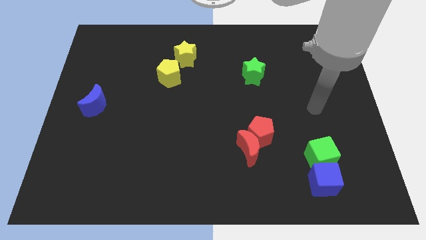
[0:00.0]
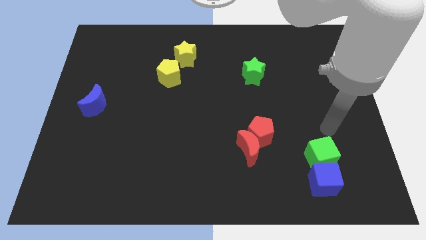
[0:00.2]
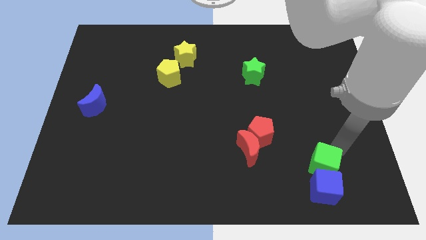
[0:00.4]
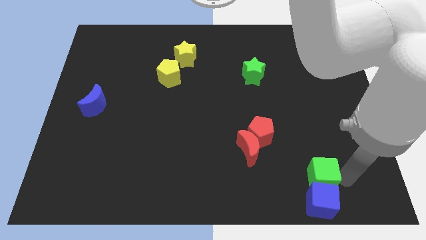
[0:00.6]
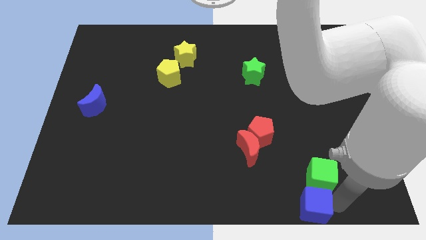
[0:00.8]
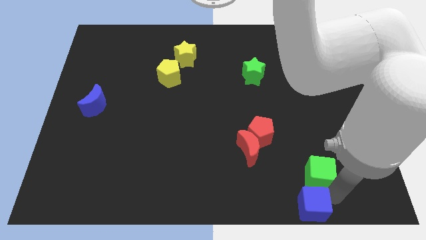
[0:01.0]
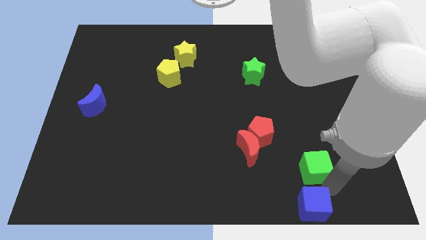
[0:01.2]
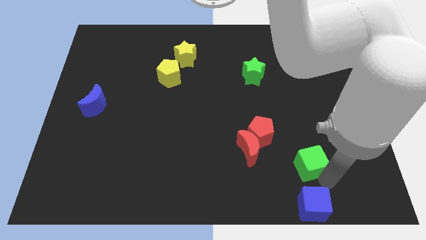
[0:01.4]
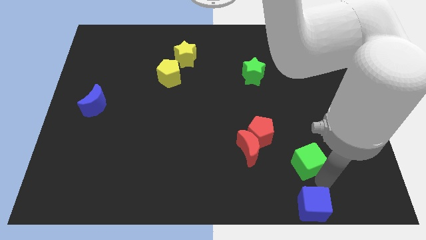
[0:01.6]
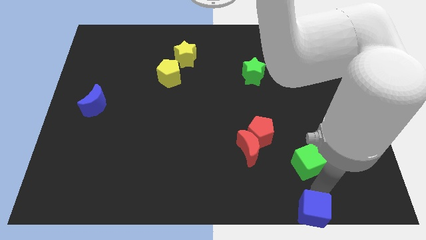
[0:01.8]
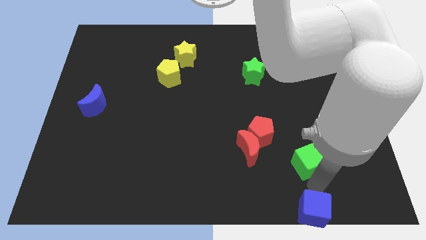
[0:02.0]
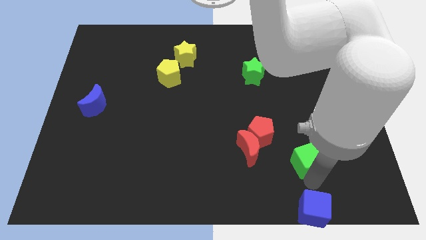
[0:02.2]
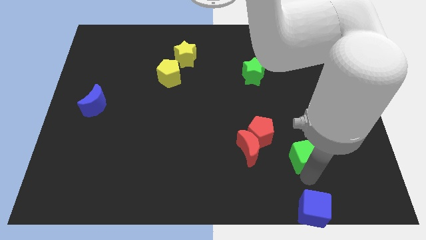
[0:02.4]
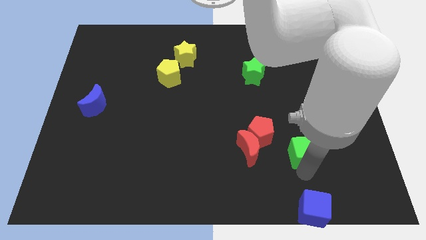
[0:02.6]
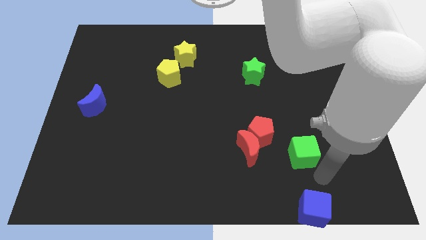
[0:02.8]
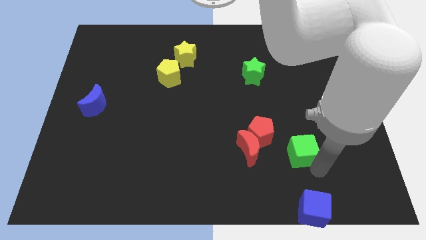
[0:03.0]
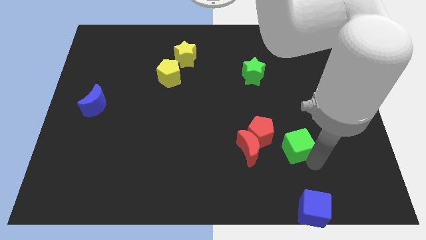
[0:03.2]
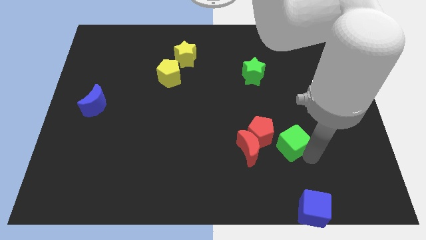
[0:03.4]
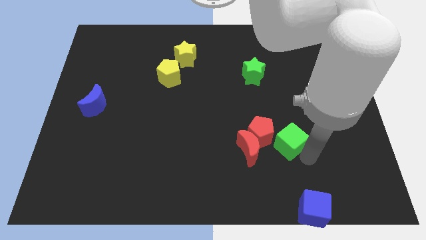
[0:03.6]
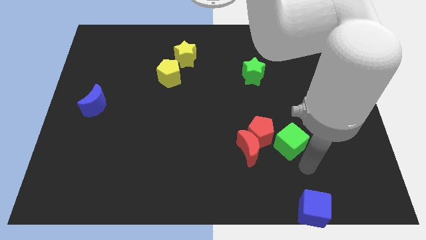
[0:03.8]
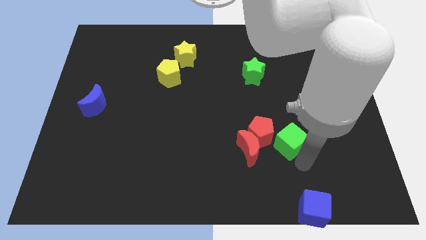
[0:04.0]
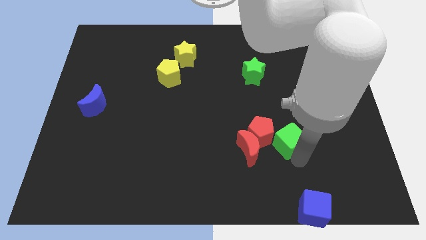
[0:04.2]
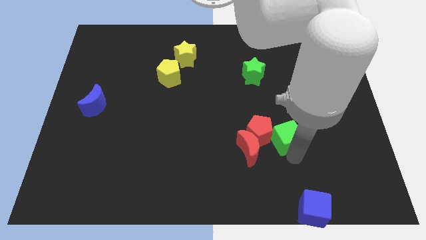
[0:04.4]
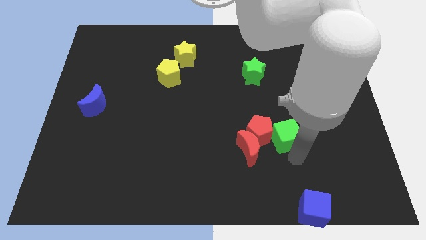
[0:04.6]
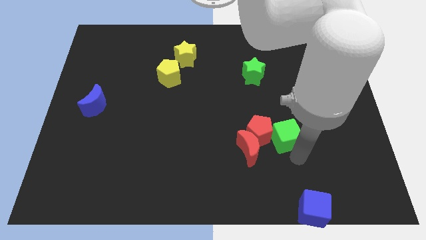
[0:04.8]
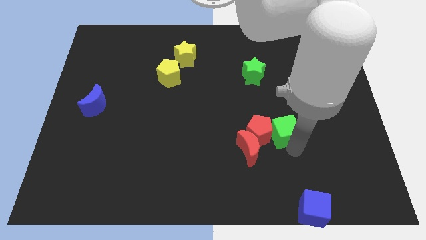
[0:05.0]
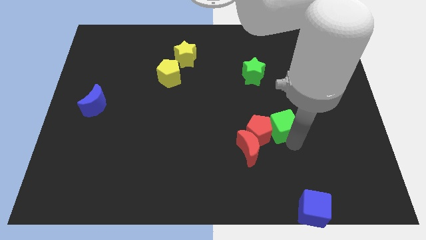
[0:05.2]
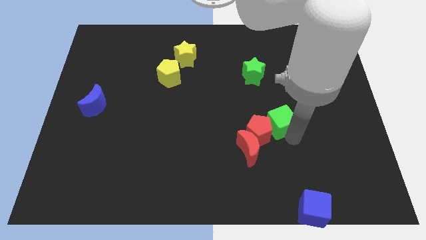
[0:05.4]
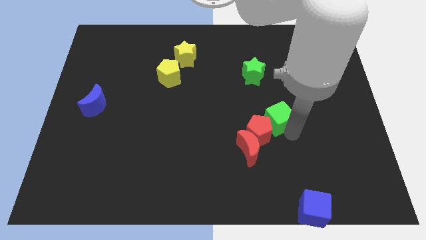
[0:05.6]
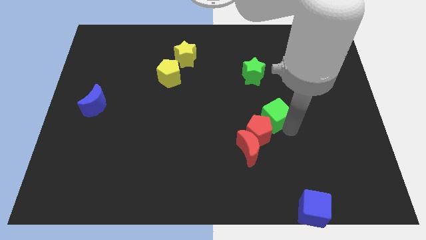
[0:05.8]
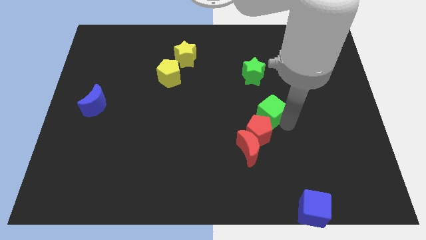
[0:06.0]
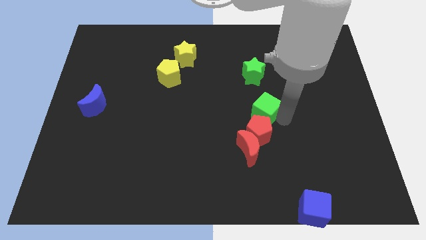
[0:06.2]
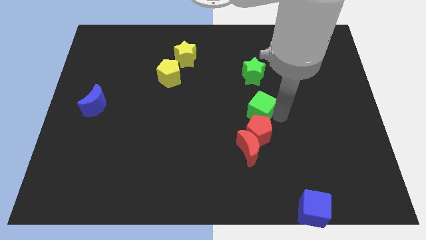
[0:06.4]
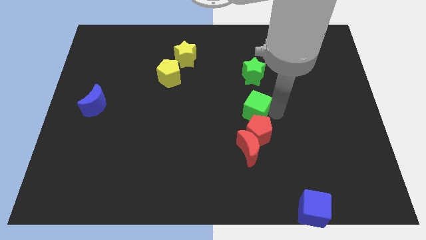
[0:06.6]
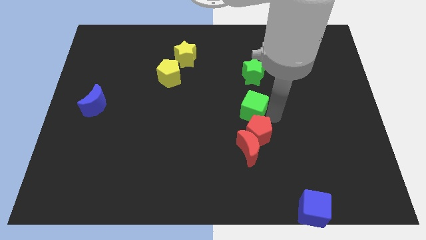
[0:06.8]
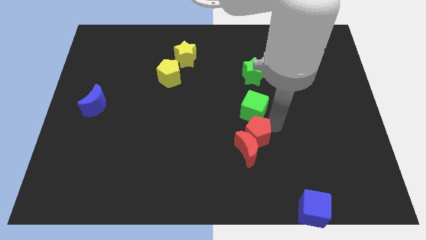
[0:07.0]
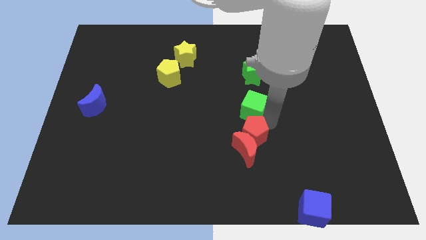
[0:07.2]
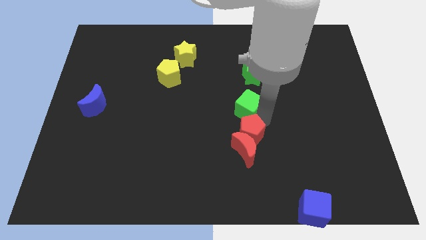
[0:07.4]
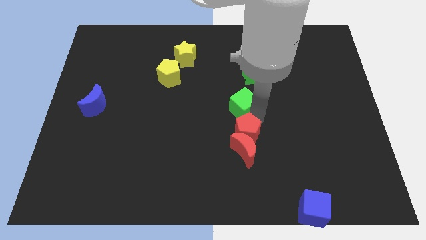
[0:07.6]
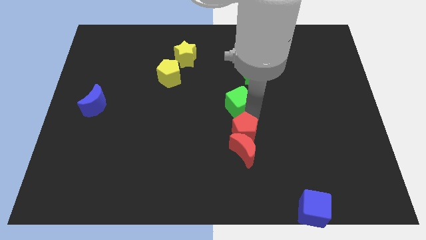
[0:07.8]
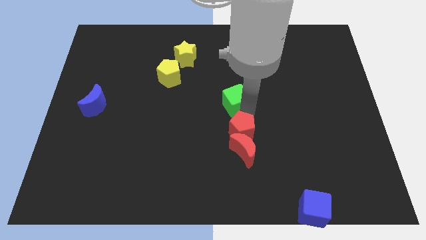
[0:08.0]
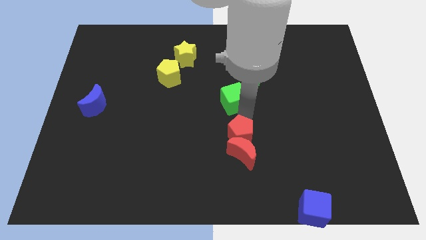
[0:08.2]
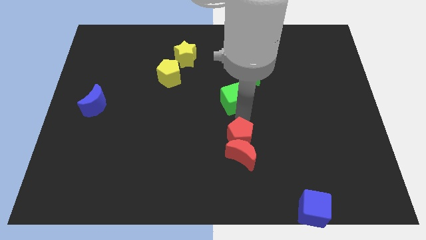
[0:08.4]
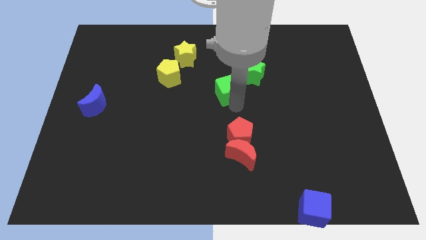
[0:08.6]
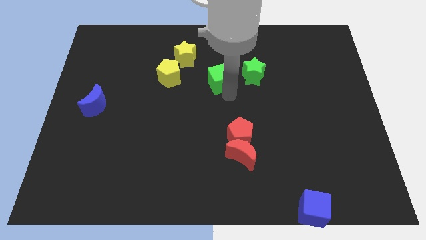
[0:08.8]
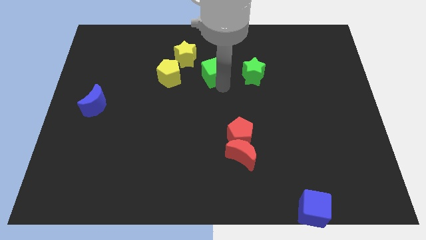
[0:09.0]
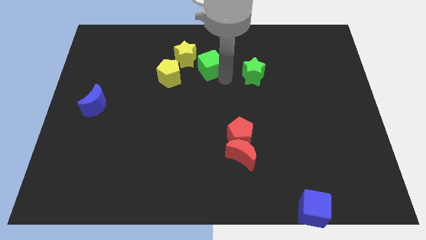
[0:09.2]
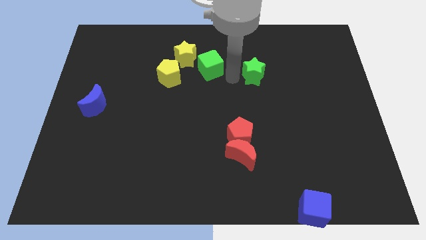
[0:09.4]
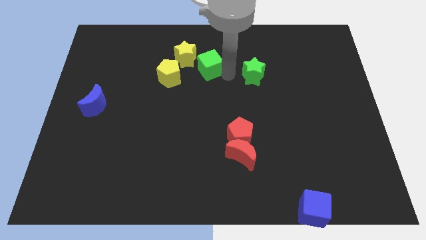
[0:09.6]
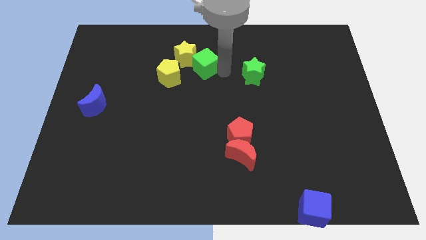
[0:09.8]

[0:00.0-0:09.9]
move the green cube towards the yellow star

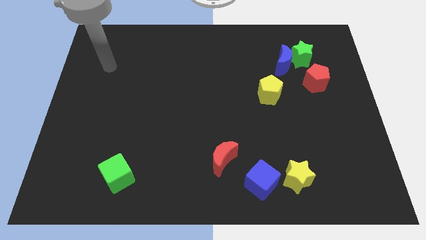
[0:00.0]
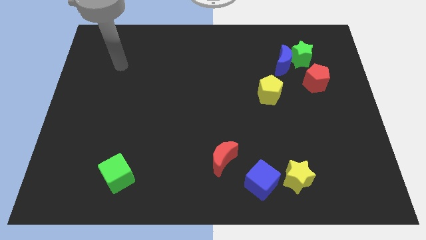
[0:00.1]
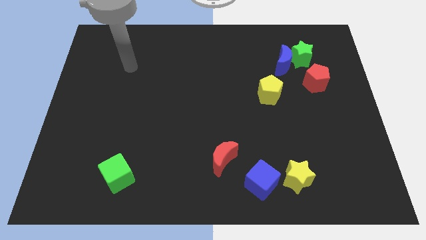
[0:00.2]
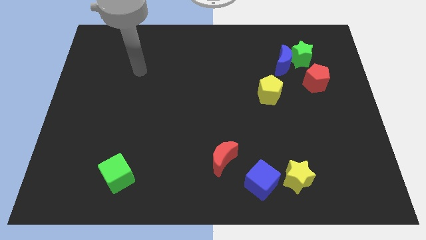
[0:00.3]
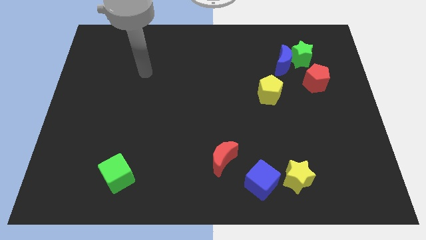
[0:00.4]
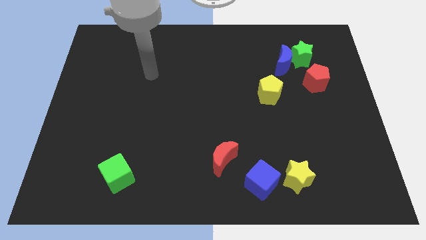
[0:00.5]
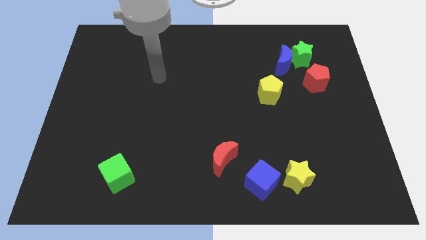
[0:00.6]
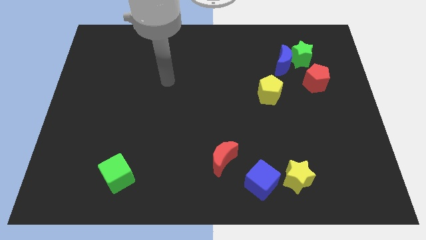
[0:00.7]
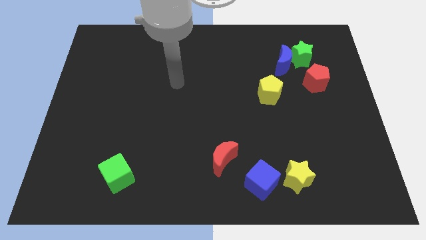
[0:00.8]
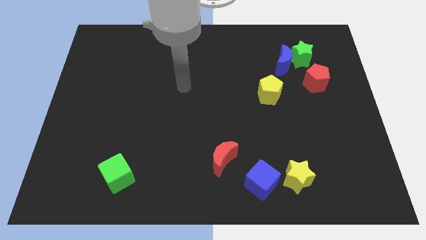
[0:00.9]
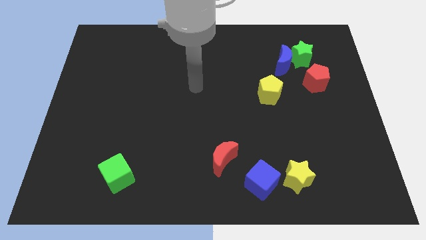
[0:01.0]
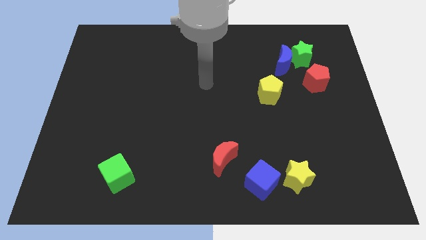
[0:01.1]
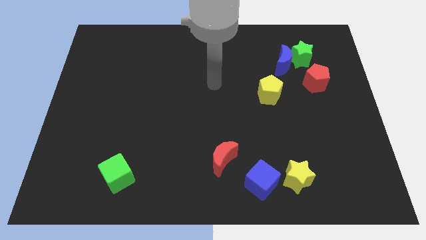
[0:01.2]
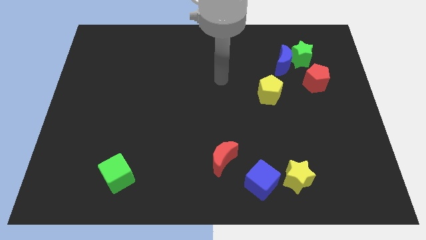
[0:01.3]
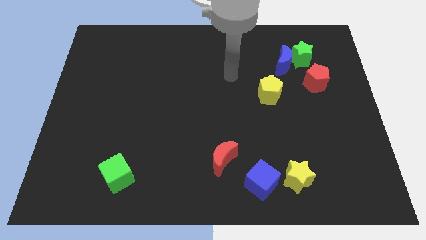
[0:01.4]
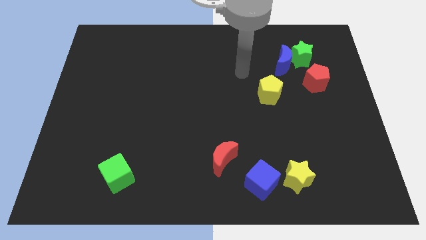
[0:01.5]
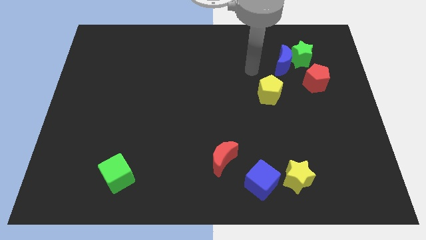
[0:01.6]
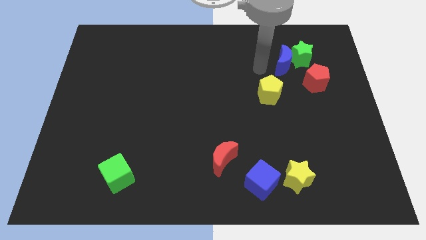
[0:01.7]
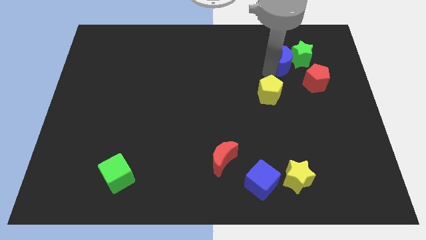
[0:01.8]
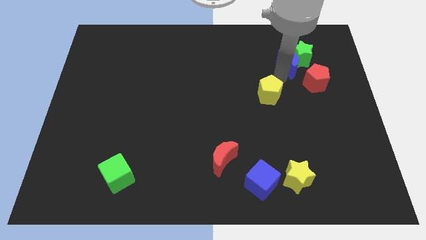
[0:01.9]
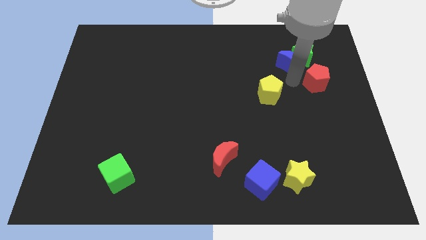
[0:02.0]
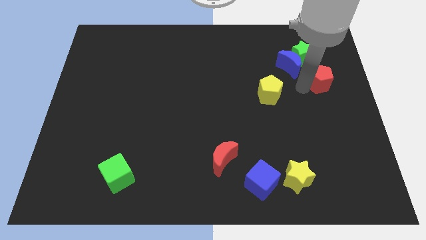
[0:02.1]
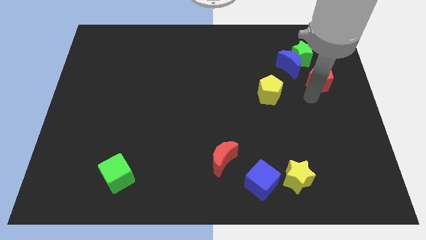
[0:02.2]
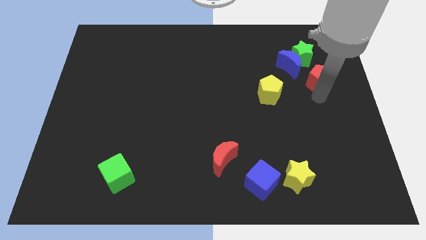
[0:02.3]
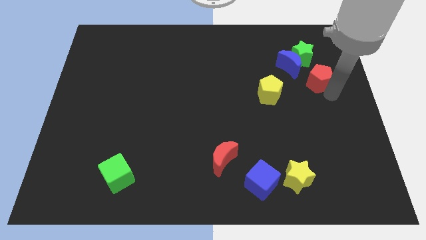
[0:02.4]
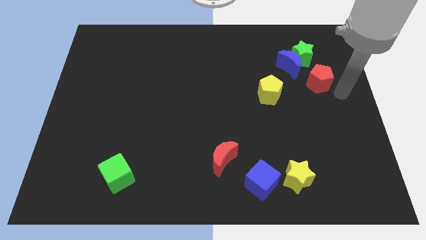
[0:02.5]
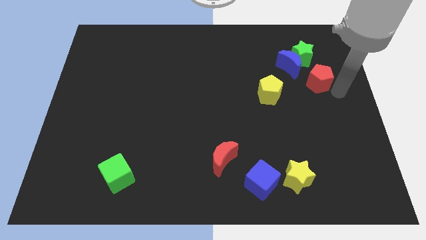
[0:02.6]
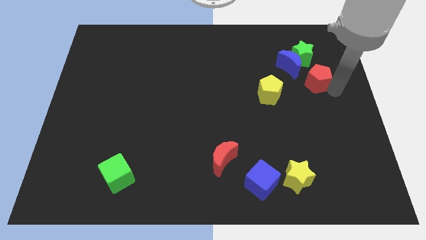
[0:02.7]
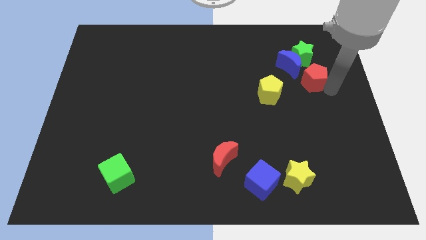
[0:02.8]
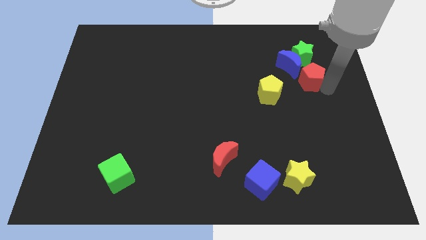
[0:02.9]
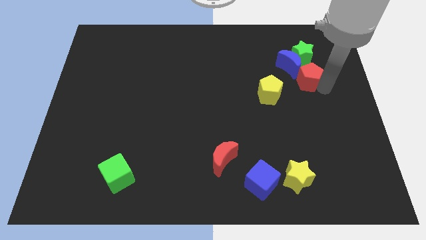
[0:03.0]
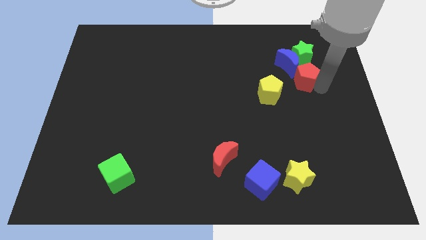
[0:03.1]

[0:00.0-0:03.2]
slide the red pentagon close to the blue moon
